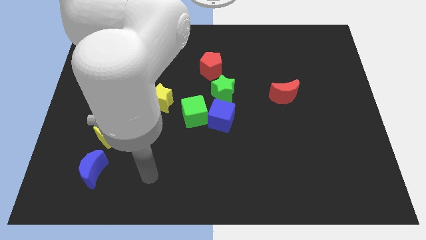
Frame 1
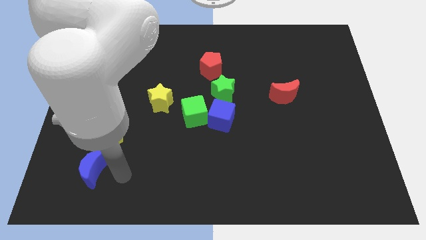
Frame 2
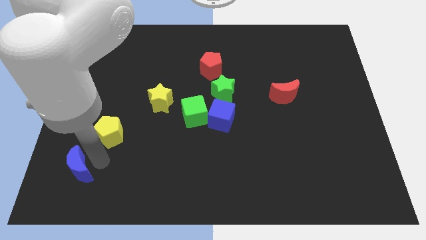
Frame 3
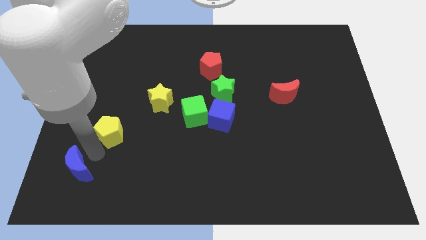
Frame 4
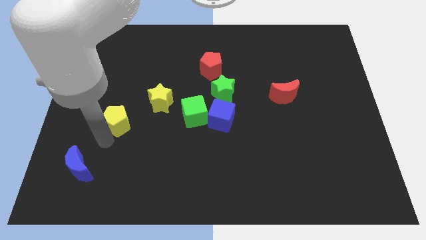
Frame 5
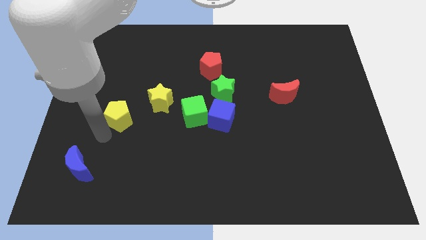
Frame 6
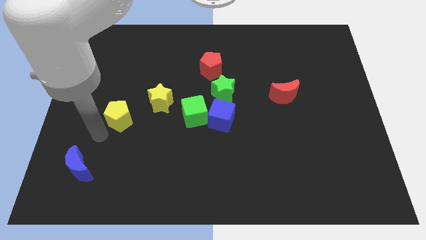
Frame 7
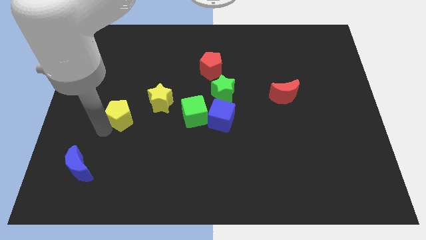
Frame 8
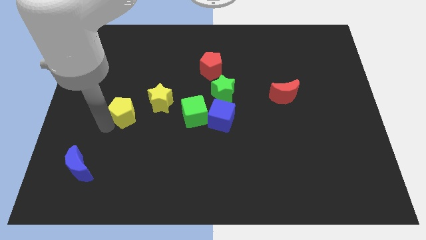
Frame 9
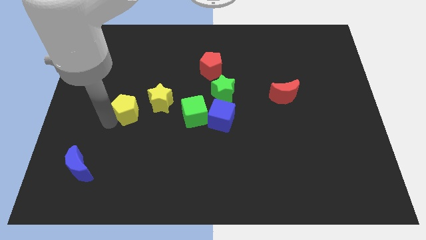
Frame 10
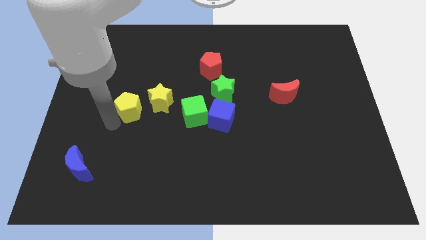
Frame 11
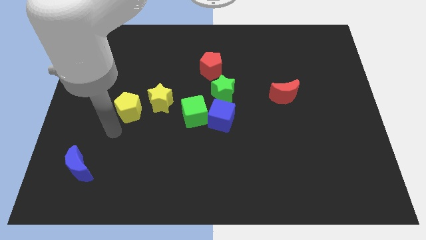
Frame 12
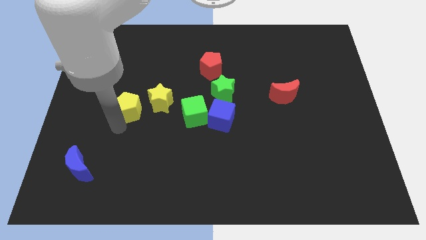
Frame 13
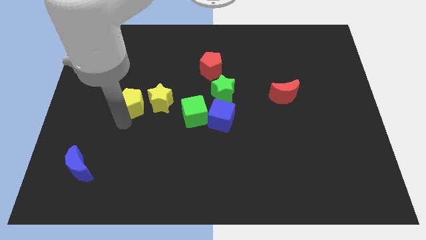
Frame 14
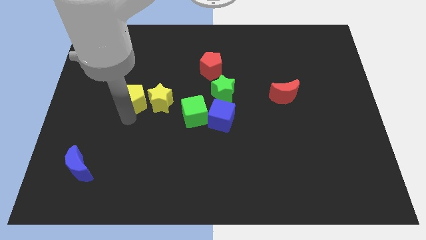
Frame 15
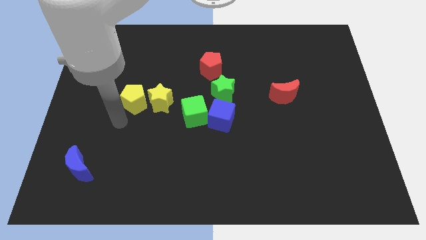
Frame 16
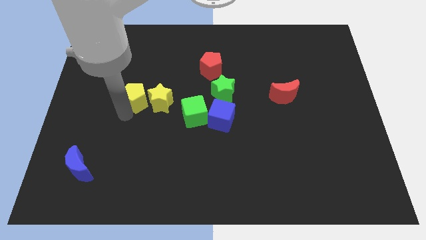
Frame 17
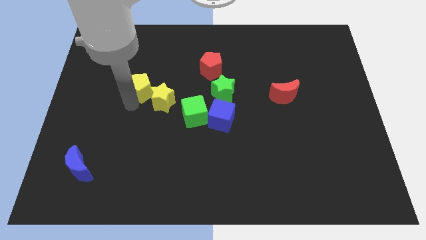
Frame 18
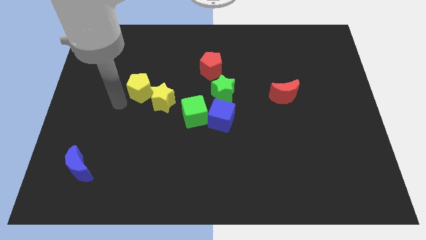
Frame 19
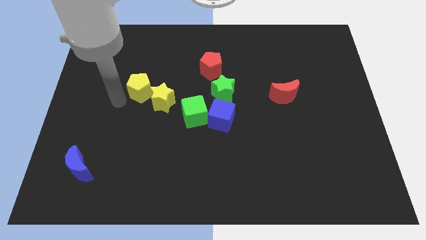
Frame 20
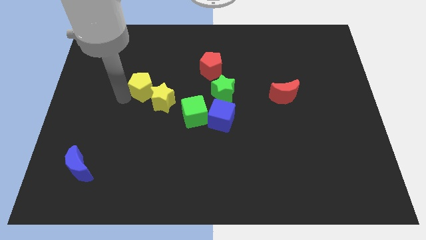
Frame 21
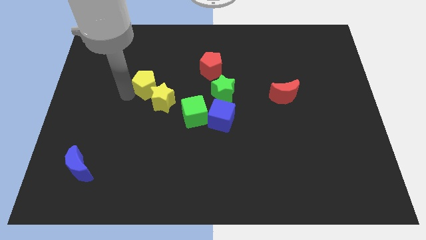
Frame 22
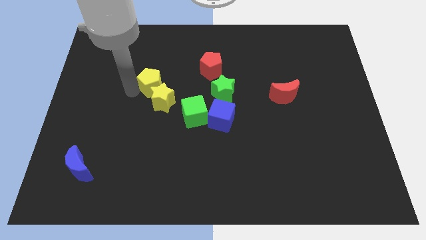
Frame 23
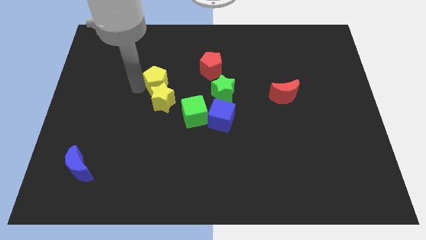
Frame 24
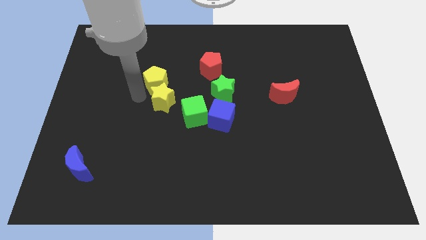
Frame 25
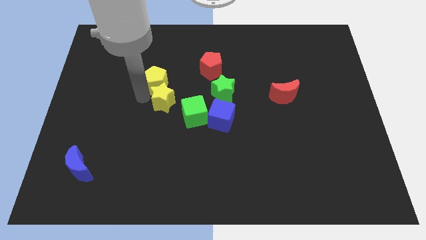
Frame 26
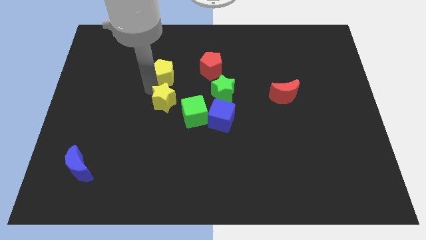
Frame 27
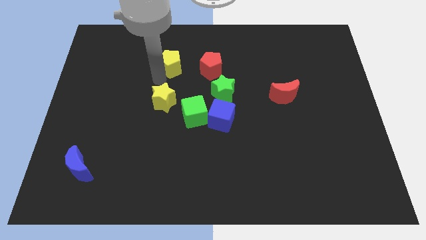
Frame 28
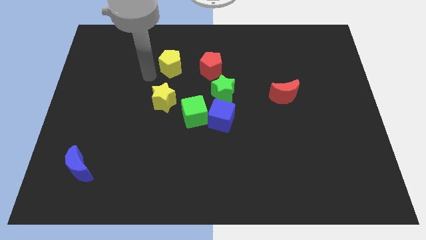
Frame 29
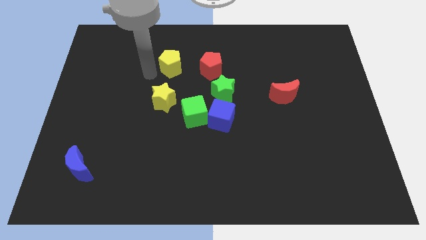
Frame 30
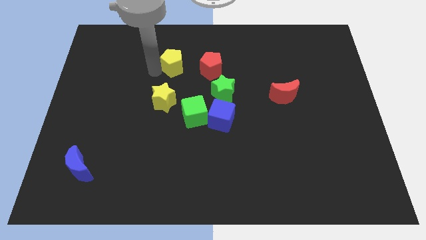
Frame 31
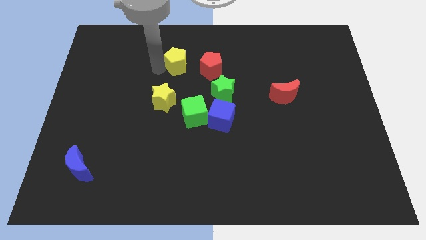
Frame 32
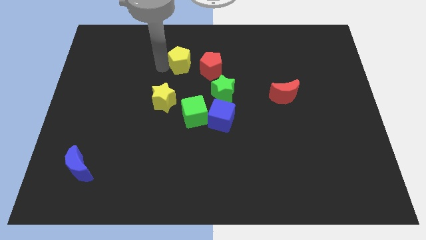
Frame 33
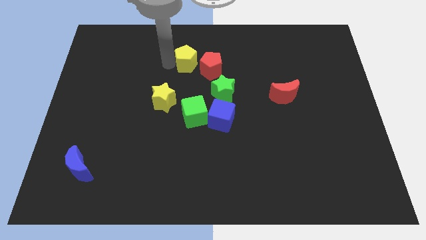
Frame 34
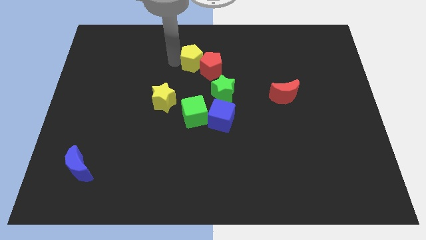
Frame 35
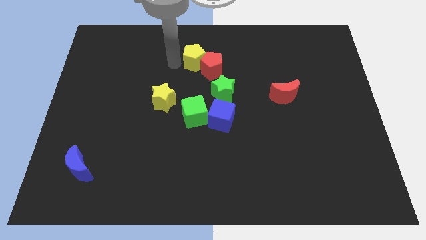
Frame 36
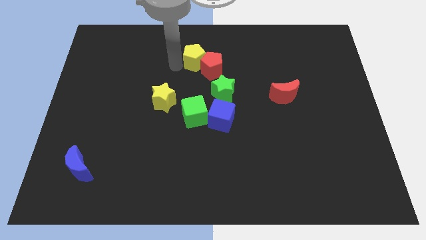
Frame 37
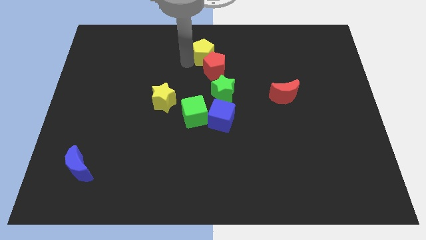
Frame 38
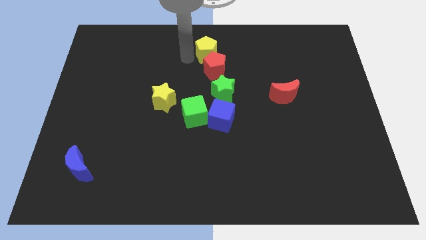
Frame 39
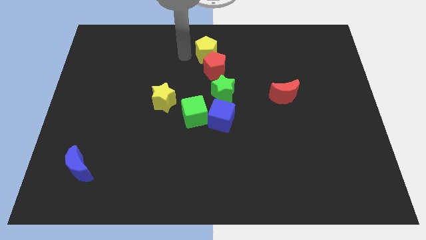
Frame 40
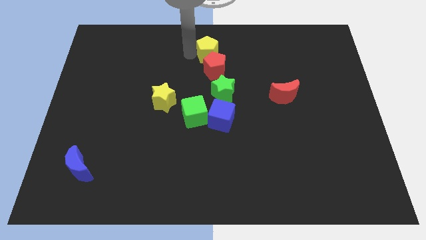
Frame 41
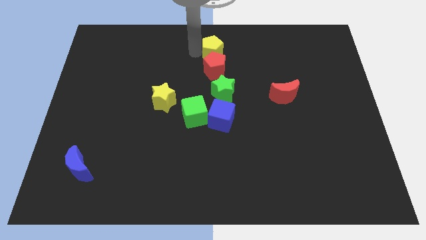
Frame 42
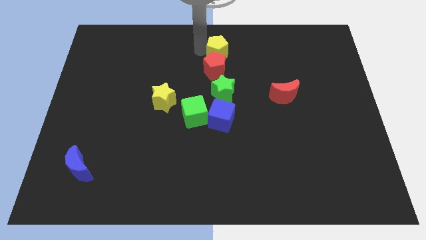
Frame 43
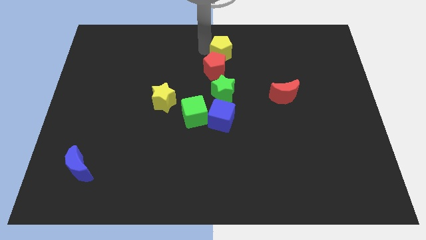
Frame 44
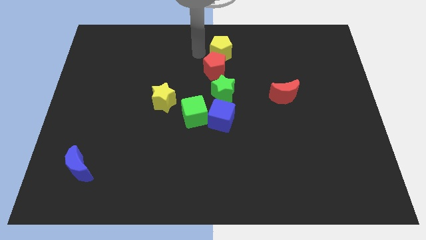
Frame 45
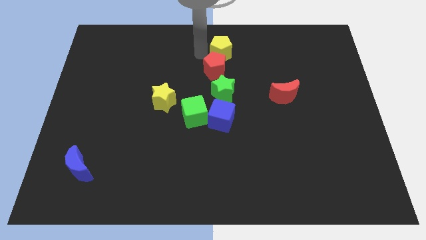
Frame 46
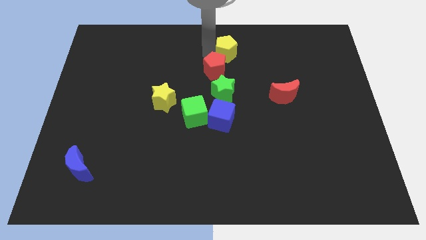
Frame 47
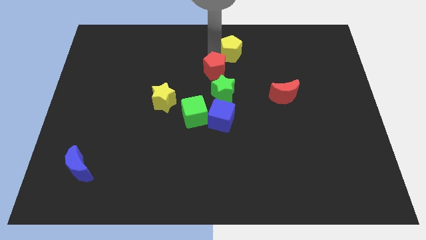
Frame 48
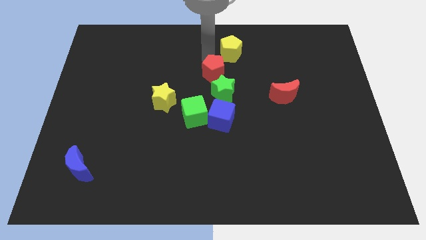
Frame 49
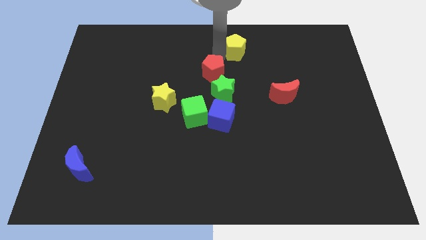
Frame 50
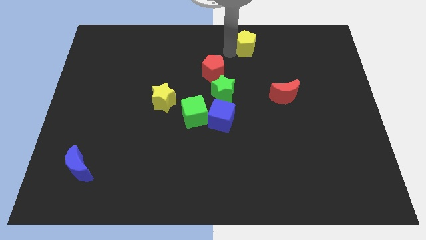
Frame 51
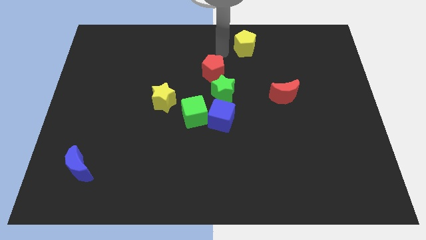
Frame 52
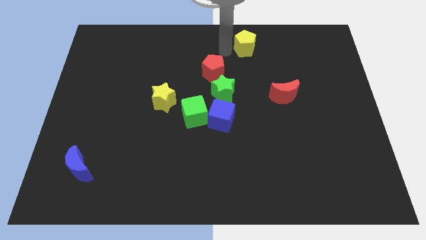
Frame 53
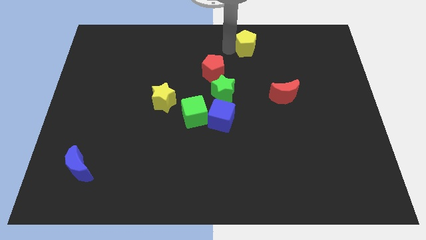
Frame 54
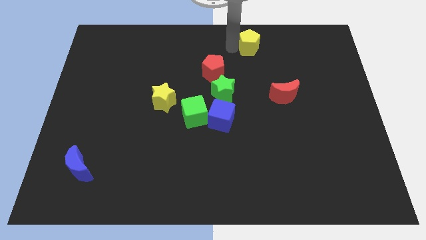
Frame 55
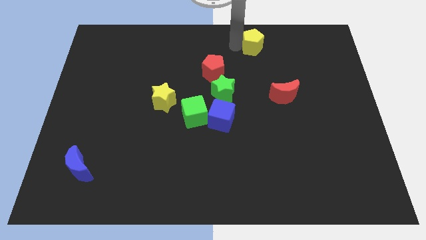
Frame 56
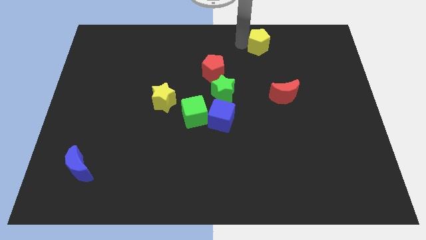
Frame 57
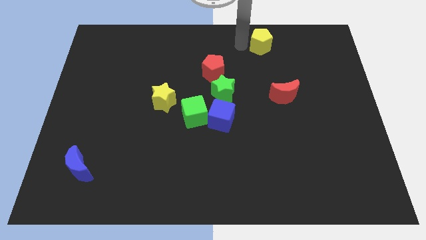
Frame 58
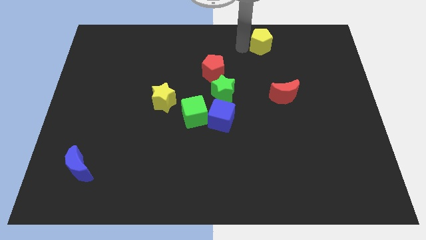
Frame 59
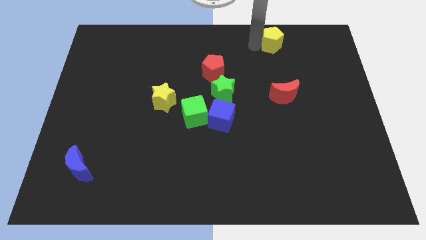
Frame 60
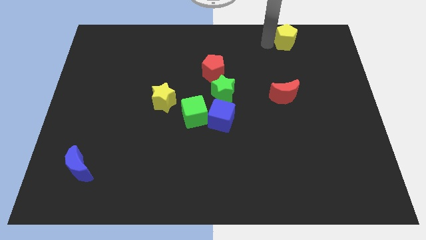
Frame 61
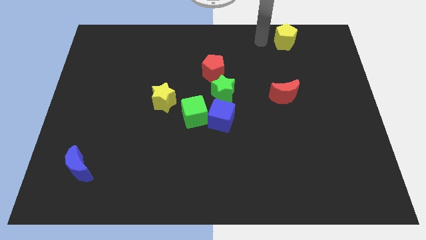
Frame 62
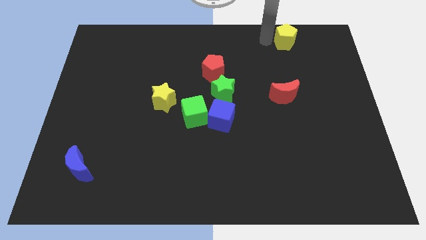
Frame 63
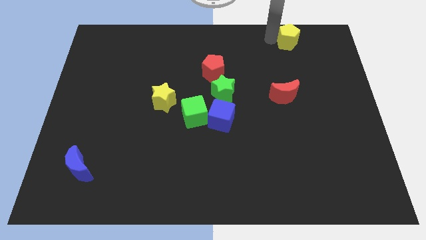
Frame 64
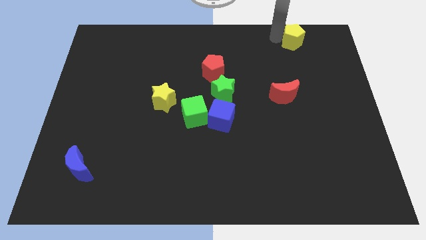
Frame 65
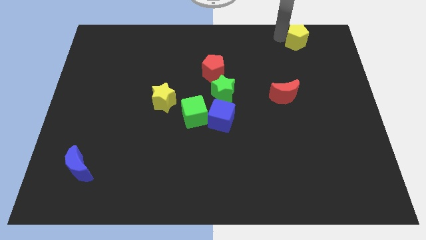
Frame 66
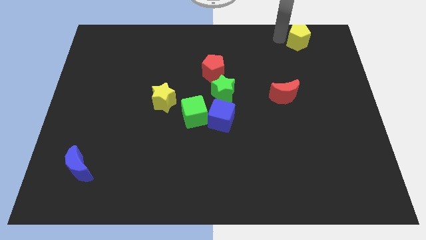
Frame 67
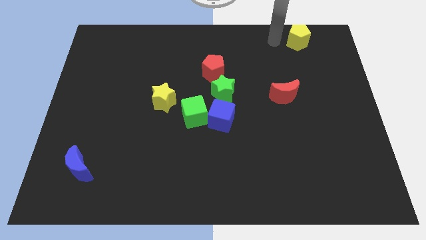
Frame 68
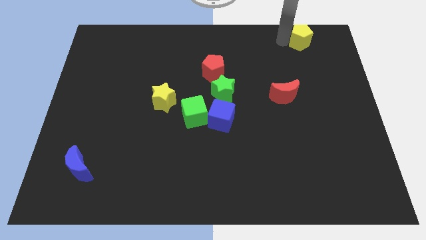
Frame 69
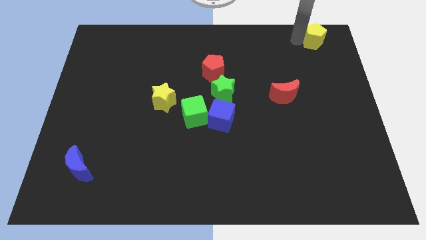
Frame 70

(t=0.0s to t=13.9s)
slide the yellow pentagon to the top right

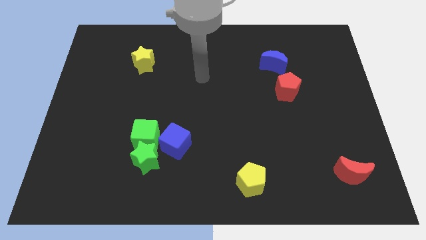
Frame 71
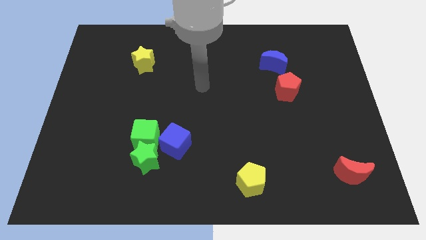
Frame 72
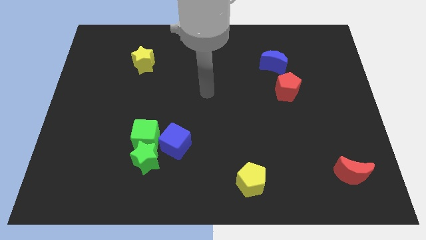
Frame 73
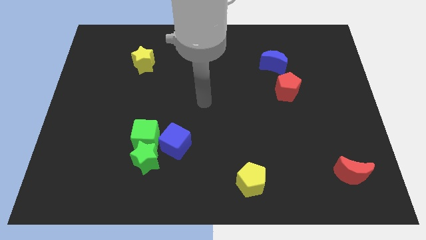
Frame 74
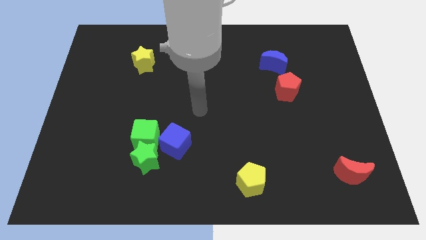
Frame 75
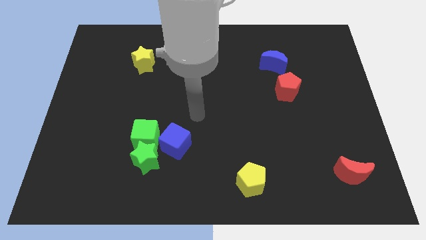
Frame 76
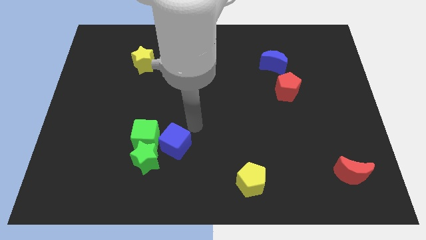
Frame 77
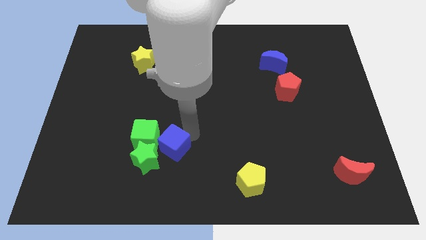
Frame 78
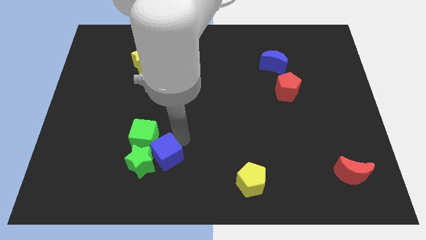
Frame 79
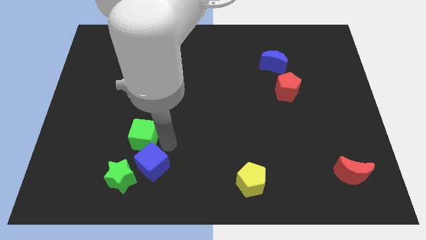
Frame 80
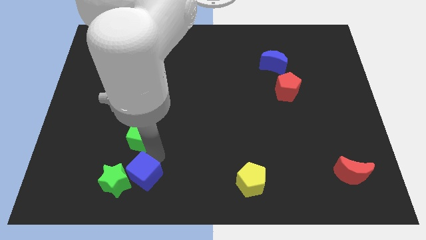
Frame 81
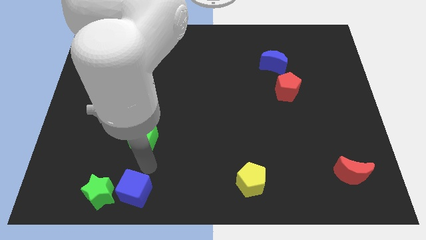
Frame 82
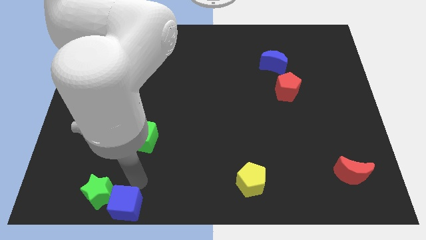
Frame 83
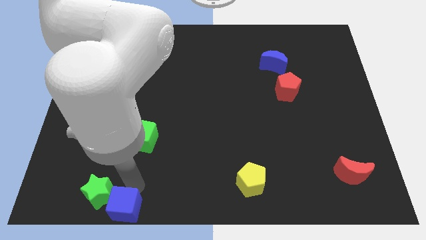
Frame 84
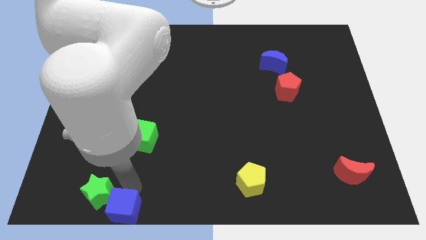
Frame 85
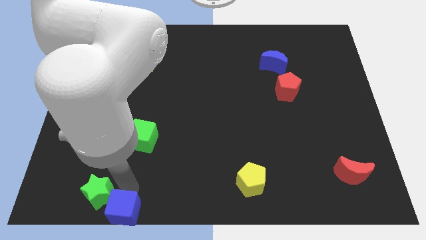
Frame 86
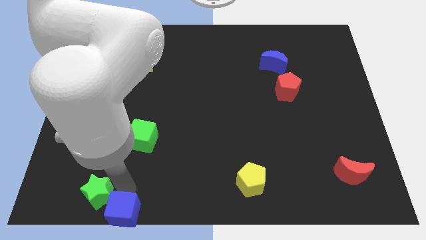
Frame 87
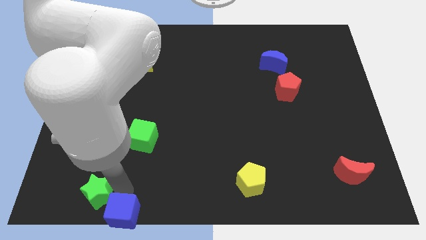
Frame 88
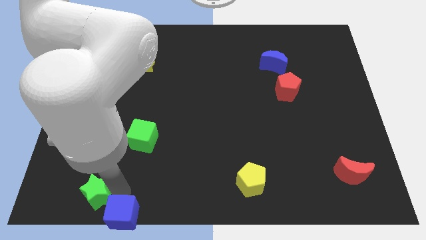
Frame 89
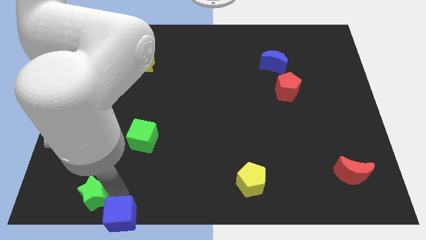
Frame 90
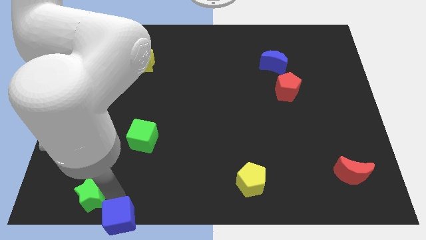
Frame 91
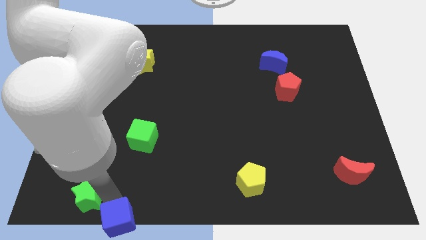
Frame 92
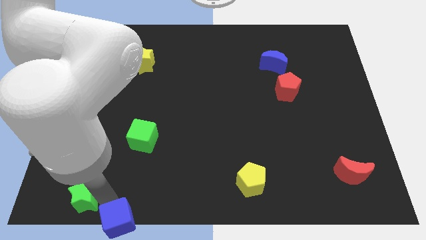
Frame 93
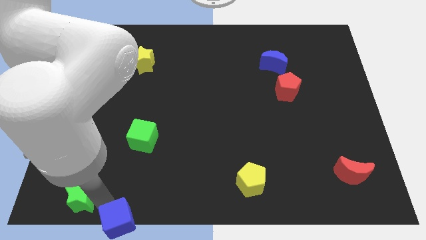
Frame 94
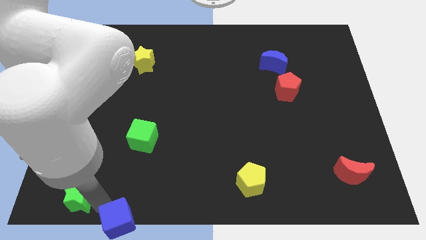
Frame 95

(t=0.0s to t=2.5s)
put the green star to the bottom left of the board
